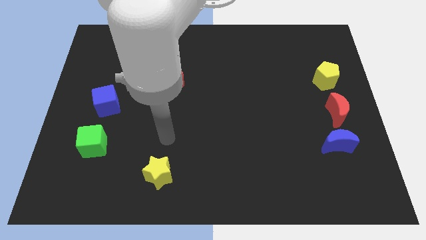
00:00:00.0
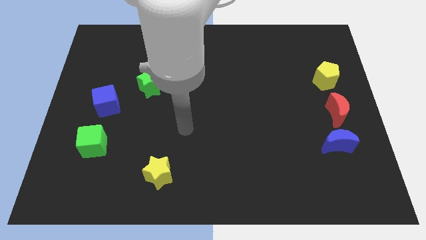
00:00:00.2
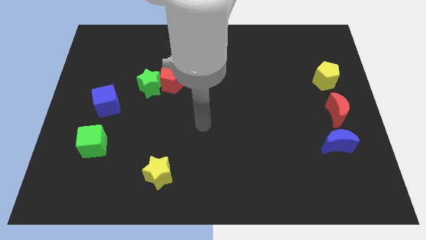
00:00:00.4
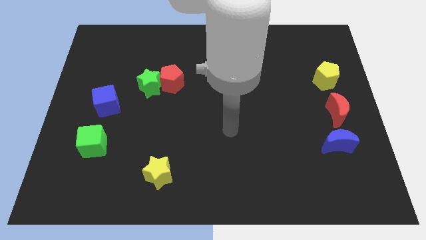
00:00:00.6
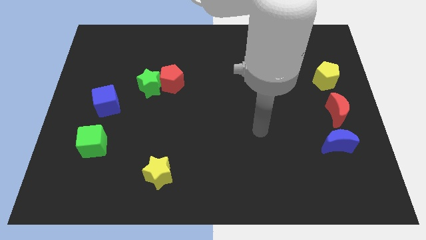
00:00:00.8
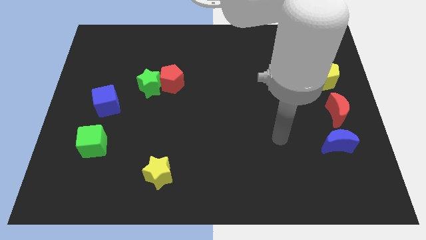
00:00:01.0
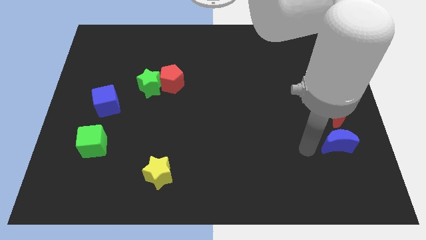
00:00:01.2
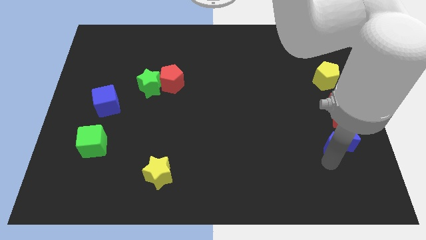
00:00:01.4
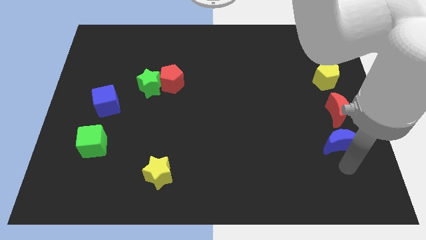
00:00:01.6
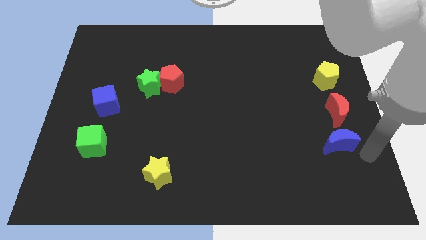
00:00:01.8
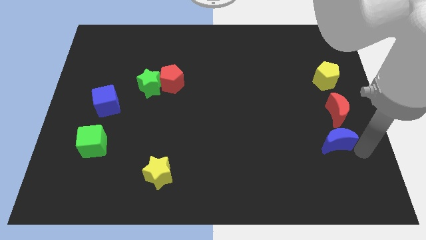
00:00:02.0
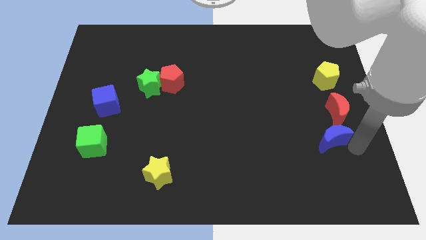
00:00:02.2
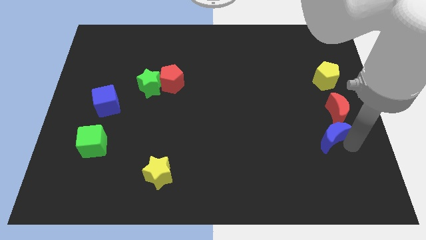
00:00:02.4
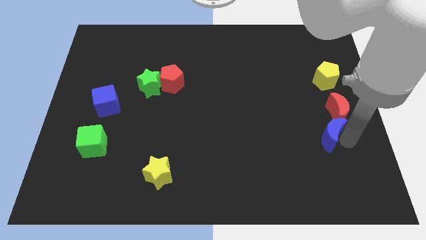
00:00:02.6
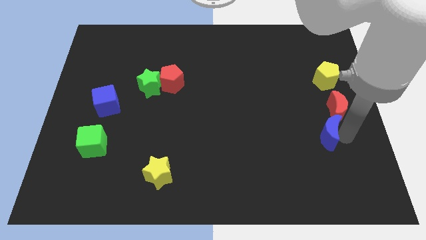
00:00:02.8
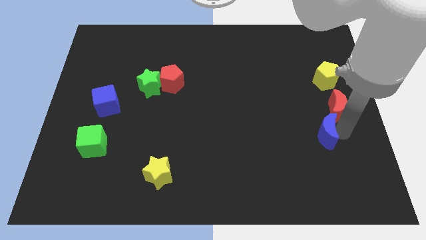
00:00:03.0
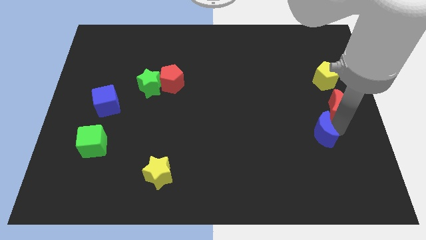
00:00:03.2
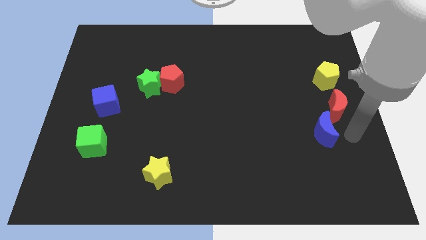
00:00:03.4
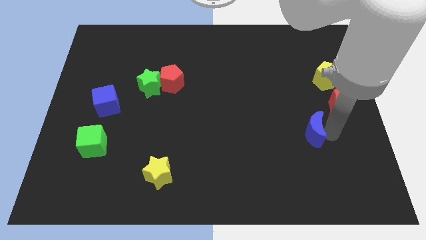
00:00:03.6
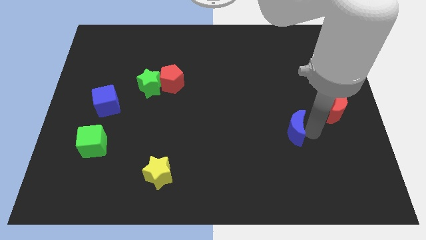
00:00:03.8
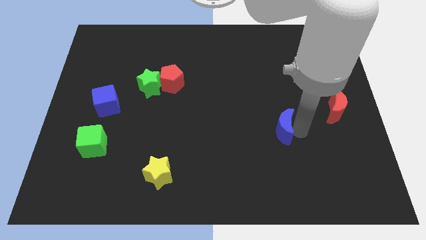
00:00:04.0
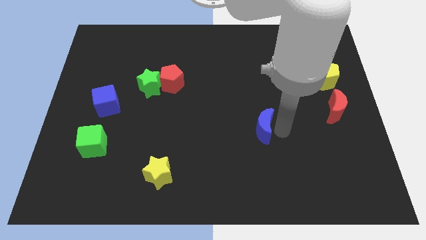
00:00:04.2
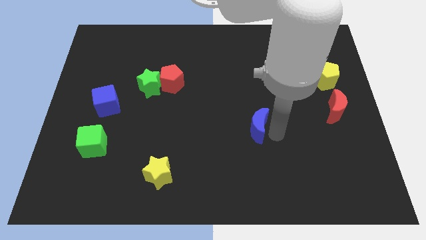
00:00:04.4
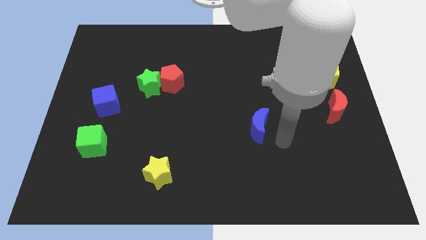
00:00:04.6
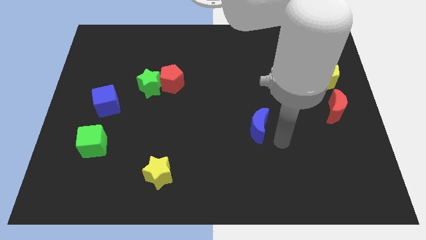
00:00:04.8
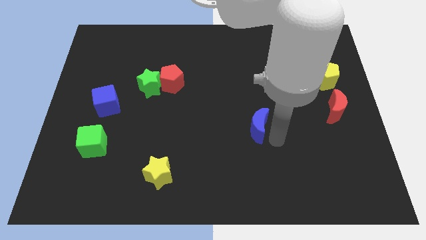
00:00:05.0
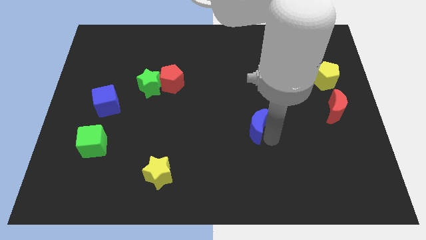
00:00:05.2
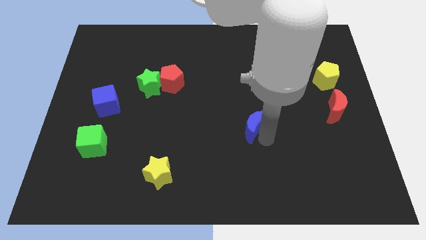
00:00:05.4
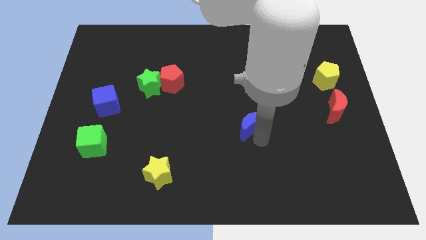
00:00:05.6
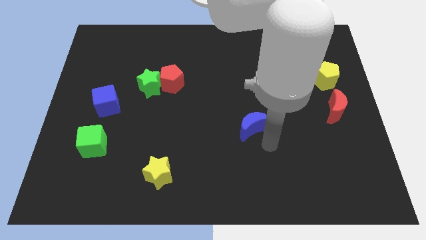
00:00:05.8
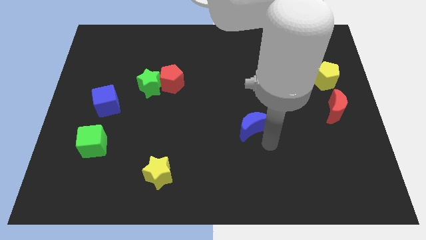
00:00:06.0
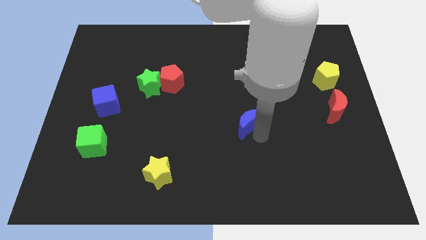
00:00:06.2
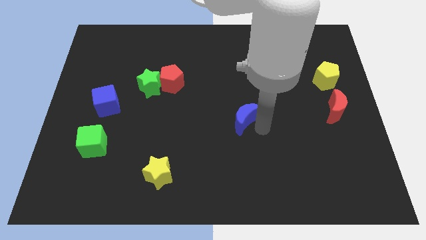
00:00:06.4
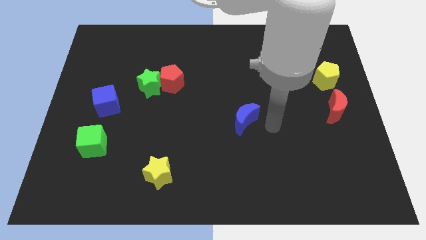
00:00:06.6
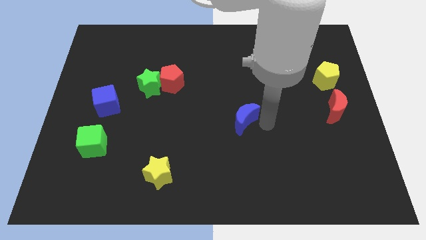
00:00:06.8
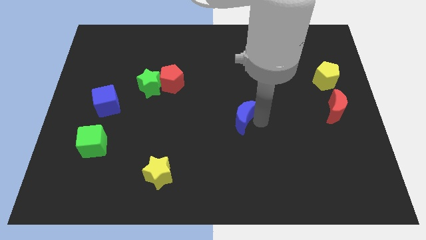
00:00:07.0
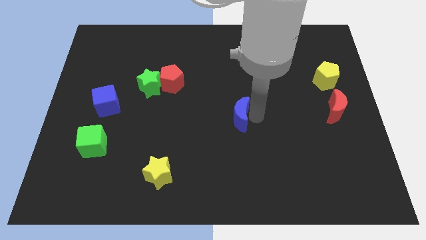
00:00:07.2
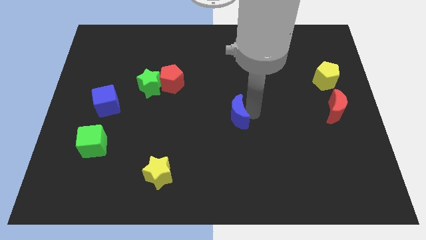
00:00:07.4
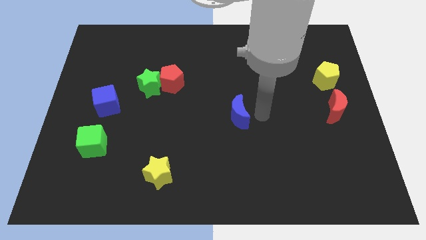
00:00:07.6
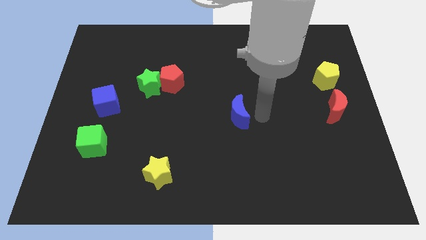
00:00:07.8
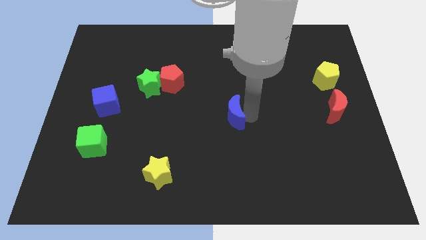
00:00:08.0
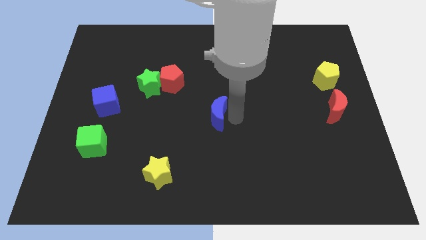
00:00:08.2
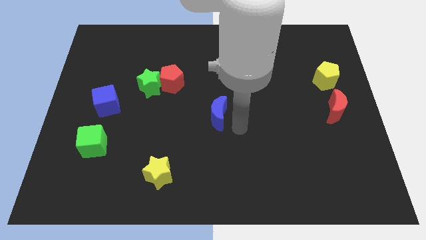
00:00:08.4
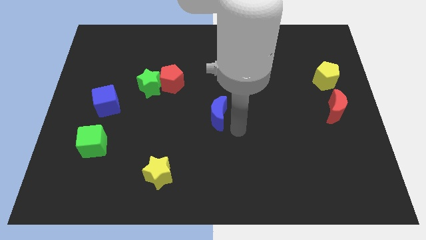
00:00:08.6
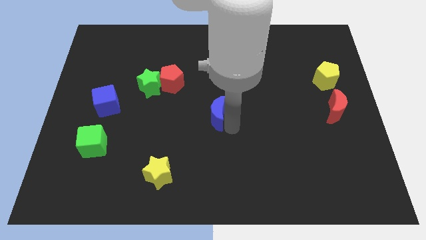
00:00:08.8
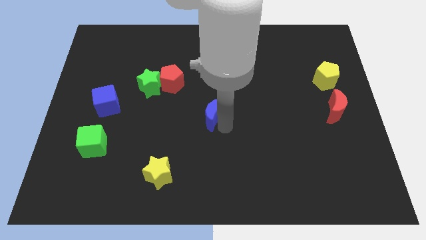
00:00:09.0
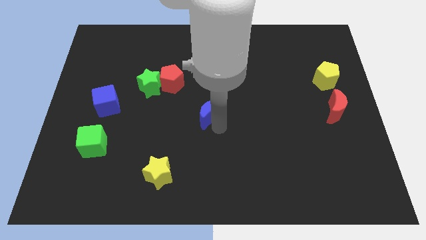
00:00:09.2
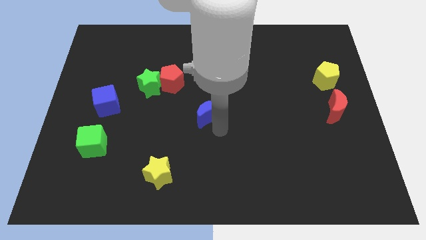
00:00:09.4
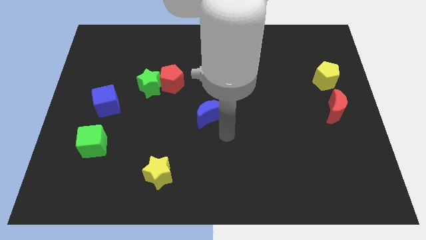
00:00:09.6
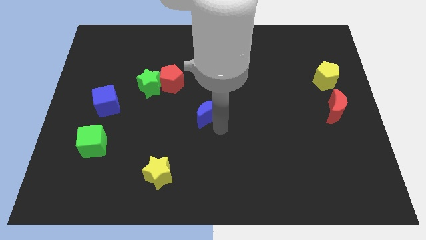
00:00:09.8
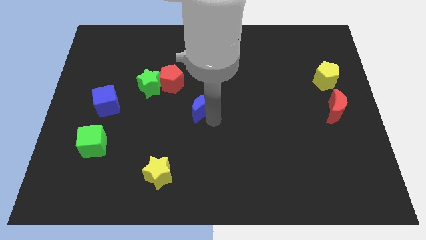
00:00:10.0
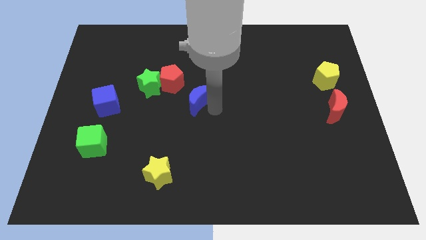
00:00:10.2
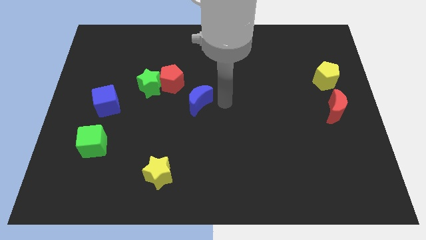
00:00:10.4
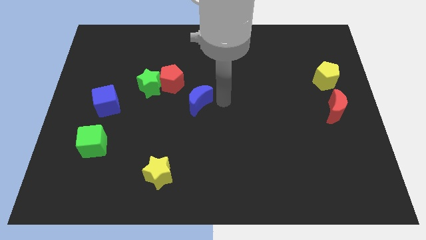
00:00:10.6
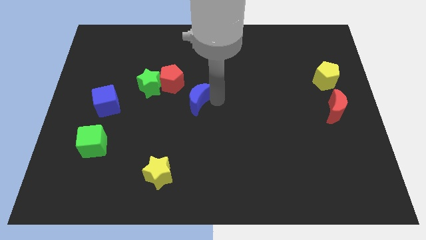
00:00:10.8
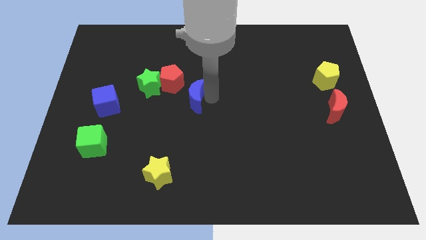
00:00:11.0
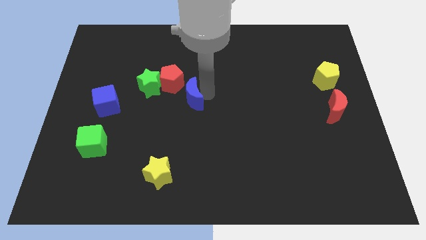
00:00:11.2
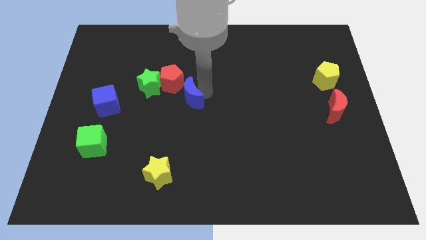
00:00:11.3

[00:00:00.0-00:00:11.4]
move the blue moon diagonally down and to the right of the green star
